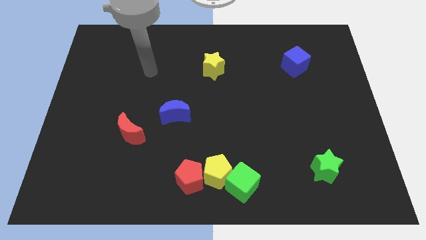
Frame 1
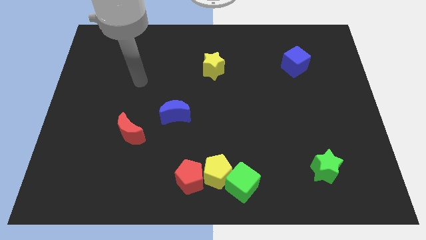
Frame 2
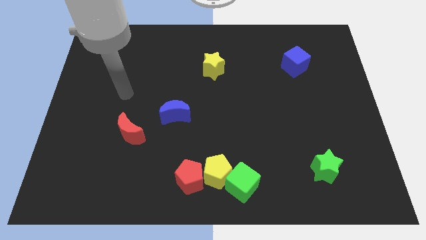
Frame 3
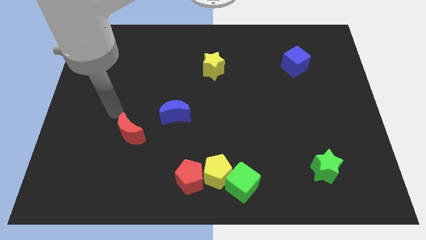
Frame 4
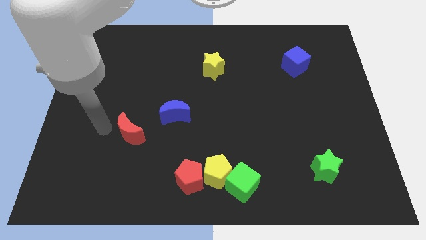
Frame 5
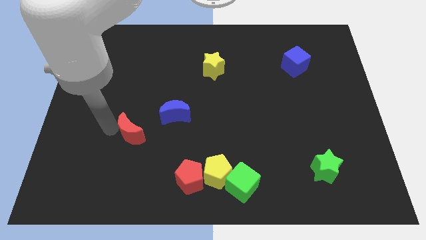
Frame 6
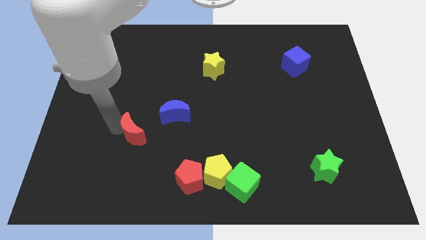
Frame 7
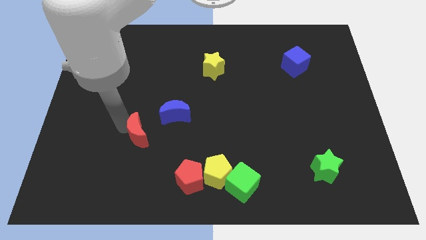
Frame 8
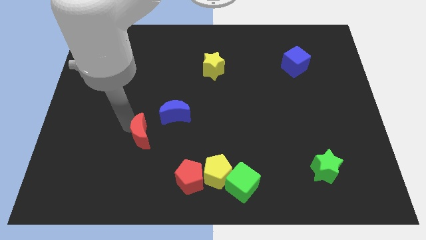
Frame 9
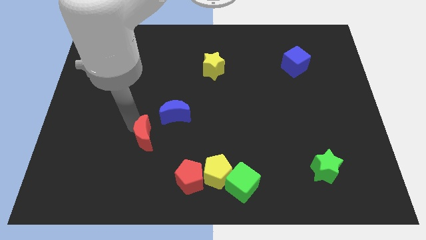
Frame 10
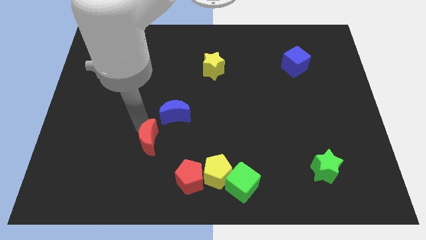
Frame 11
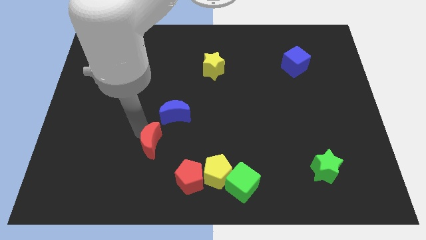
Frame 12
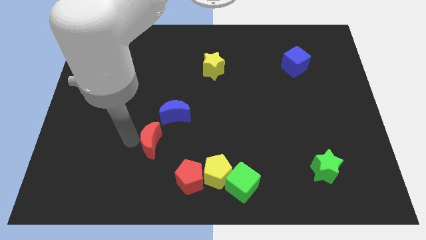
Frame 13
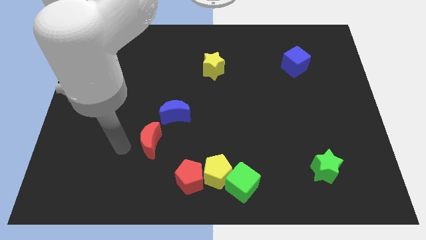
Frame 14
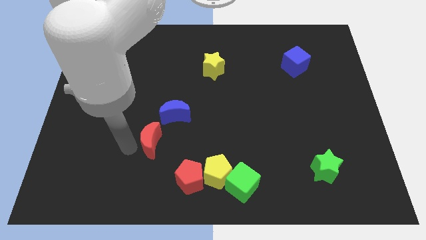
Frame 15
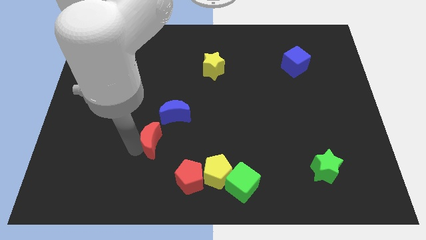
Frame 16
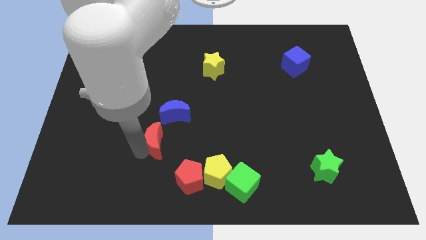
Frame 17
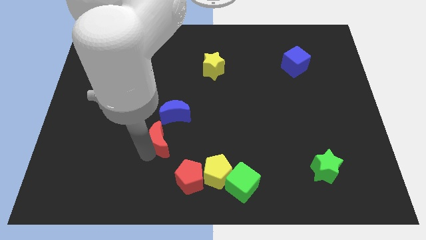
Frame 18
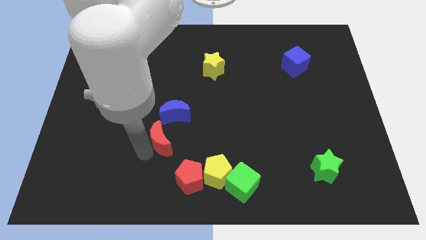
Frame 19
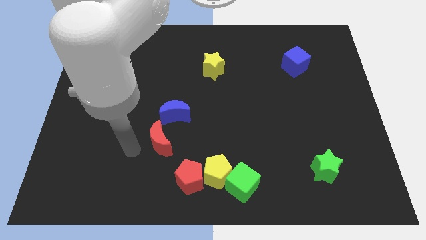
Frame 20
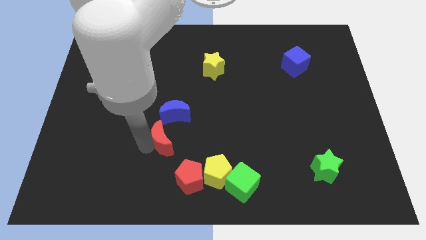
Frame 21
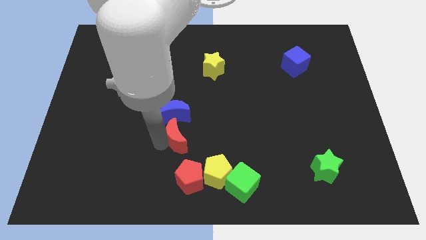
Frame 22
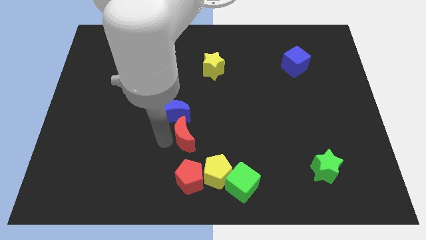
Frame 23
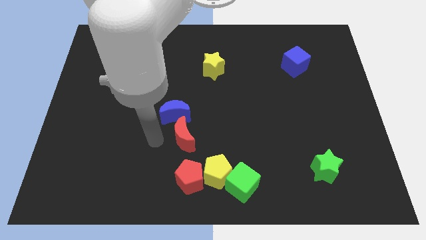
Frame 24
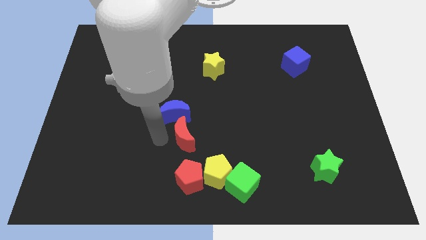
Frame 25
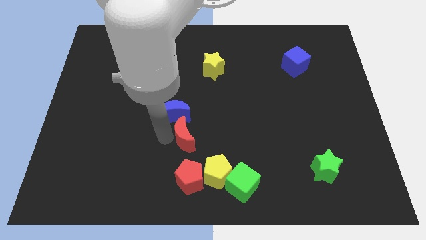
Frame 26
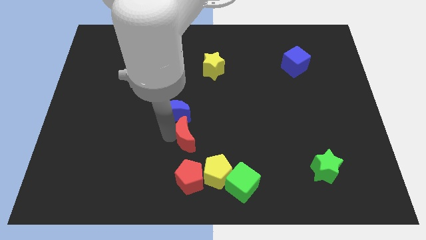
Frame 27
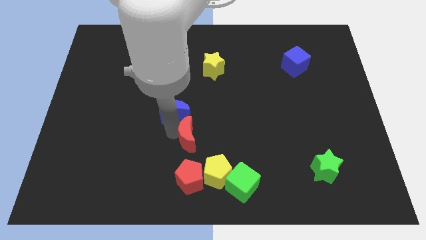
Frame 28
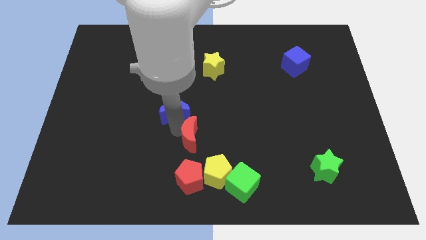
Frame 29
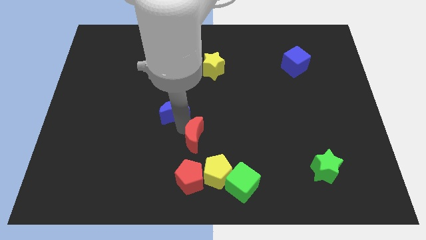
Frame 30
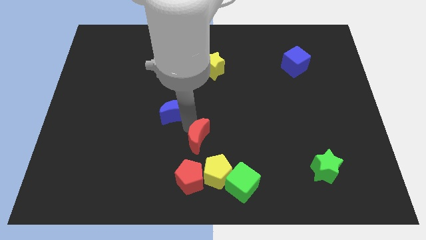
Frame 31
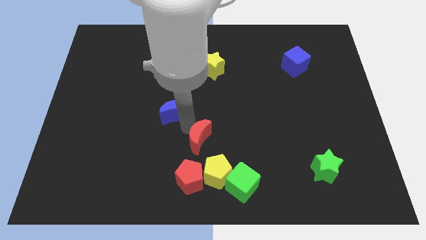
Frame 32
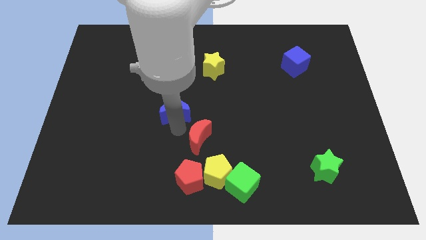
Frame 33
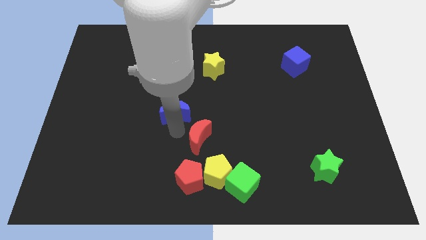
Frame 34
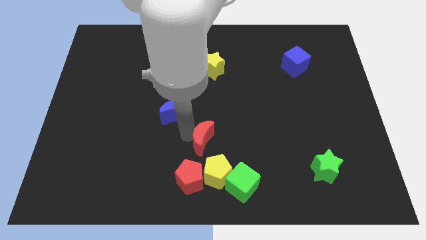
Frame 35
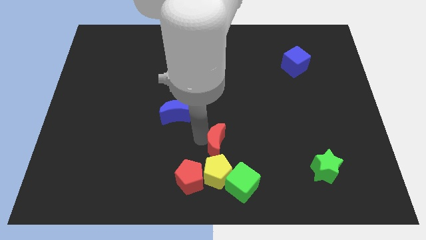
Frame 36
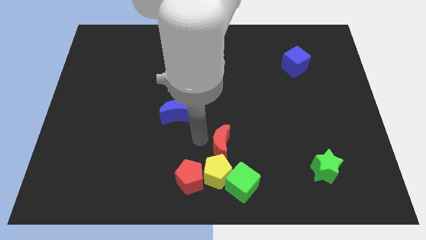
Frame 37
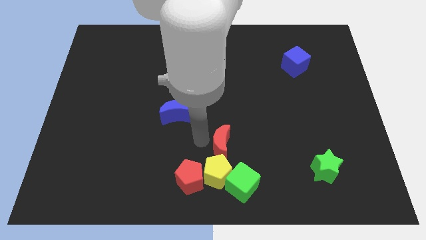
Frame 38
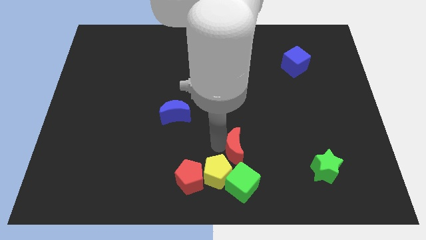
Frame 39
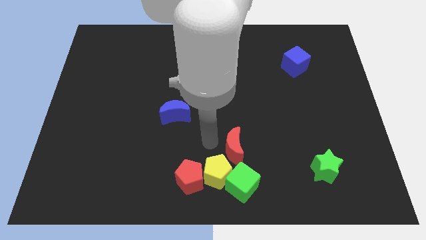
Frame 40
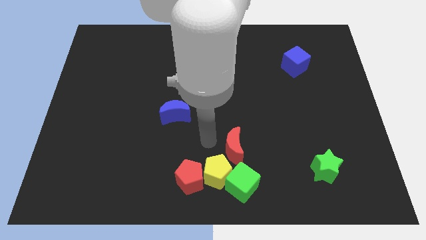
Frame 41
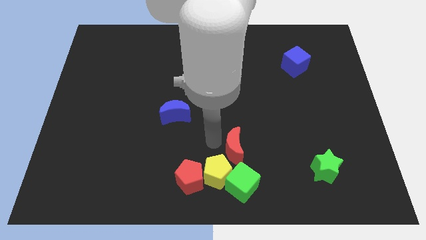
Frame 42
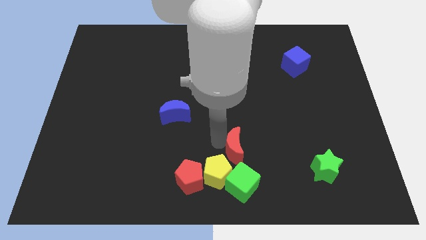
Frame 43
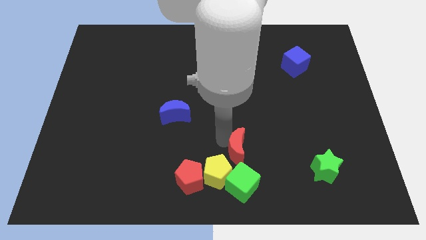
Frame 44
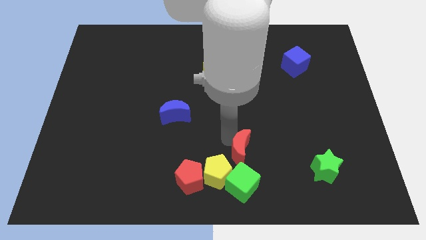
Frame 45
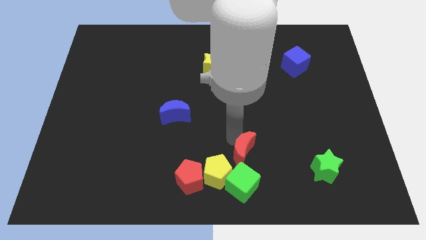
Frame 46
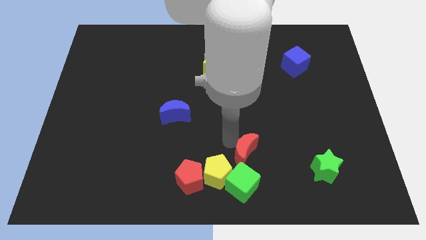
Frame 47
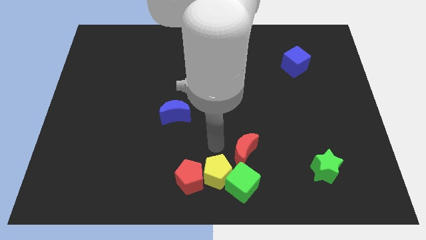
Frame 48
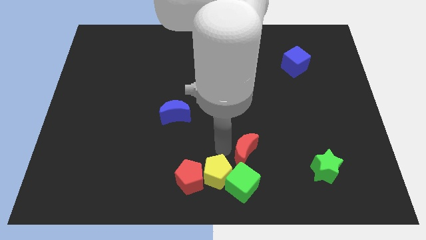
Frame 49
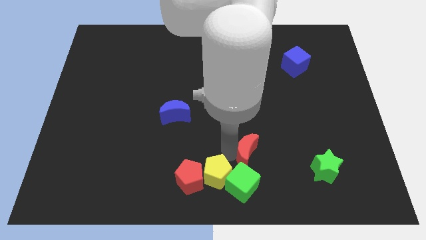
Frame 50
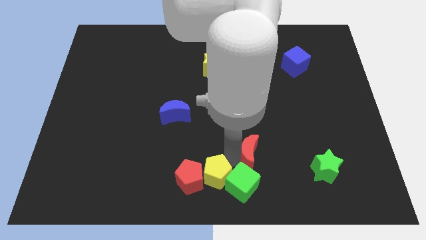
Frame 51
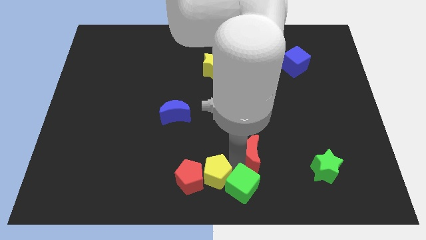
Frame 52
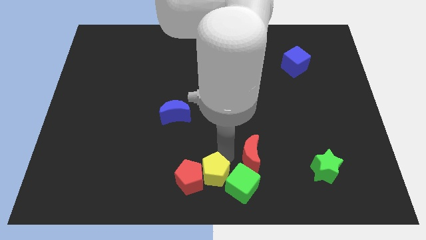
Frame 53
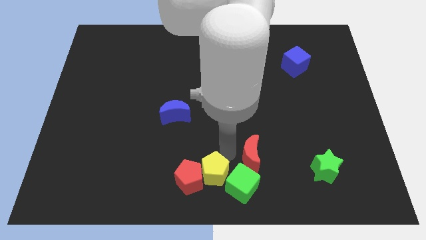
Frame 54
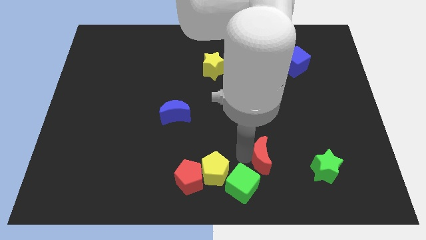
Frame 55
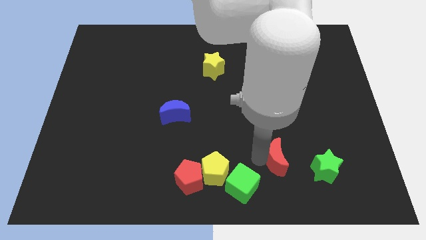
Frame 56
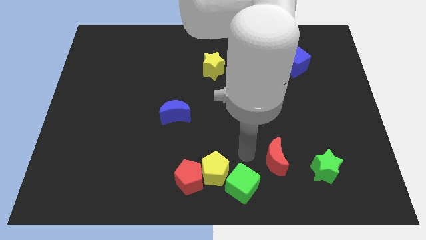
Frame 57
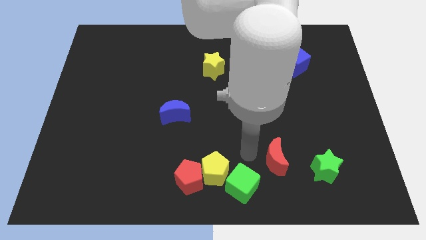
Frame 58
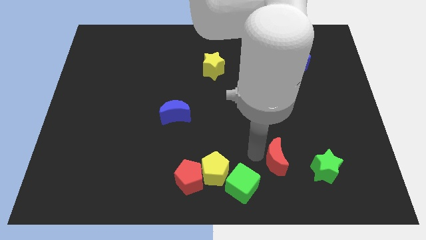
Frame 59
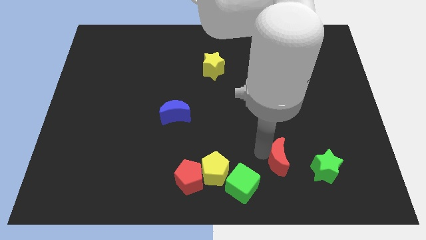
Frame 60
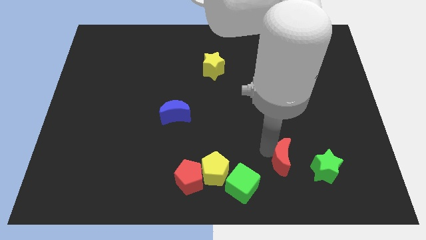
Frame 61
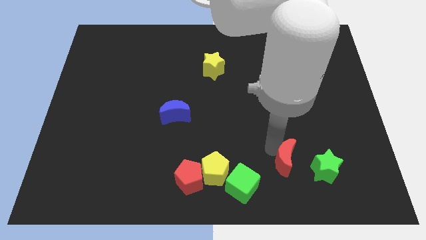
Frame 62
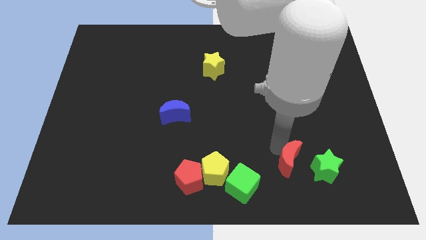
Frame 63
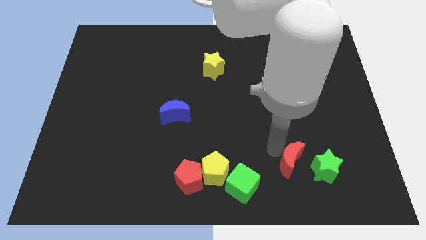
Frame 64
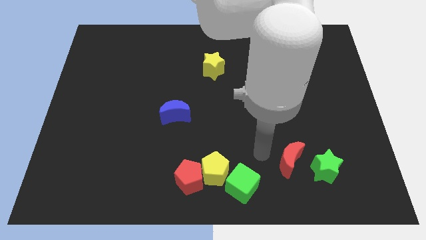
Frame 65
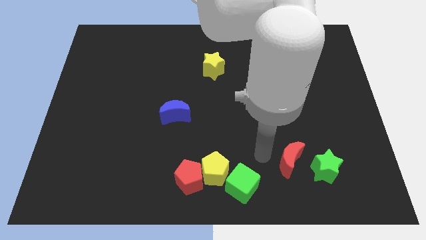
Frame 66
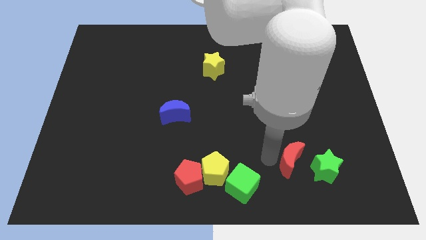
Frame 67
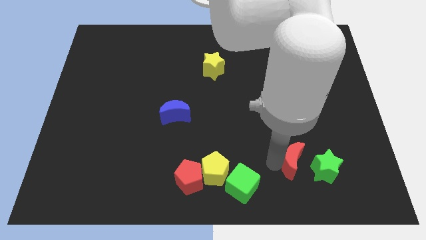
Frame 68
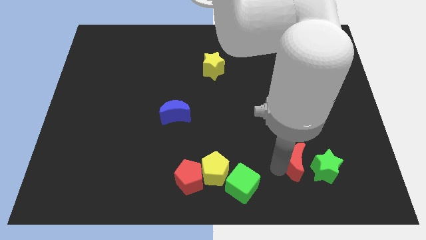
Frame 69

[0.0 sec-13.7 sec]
put the red moon close to the green star

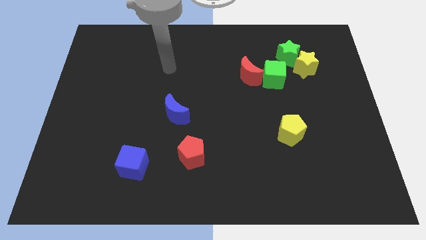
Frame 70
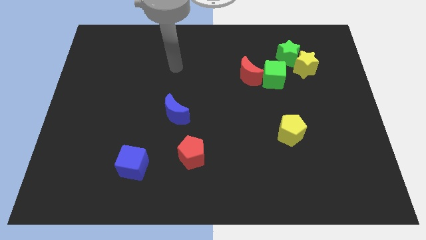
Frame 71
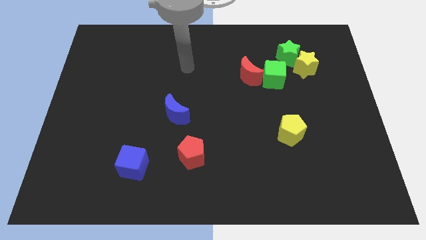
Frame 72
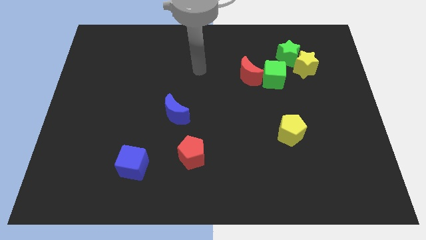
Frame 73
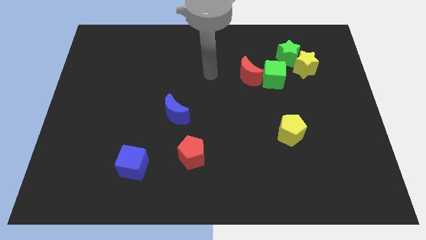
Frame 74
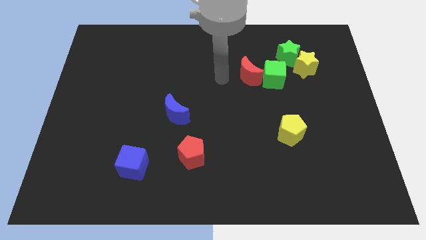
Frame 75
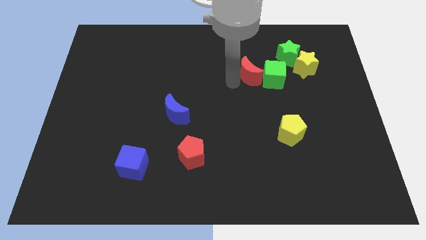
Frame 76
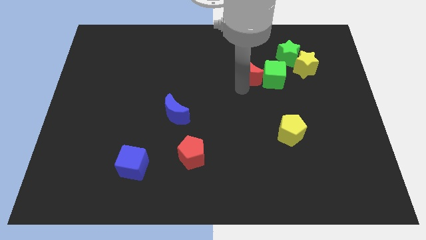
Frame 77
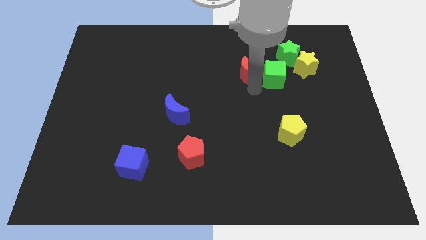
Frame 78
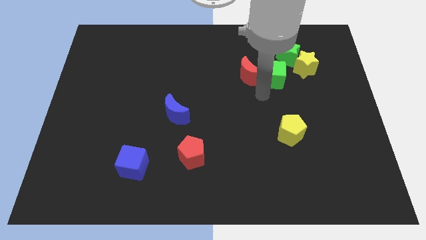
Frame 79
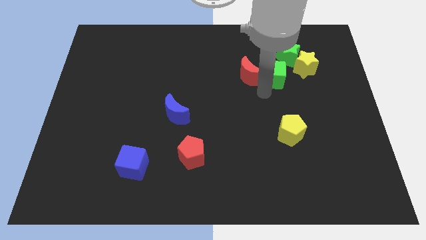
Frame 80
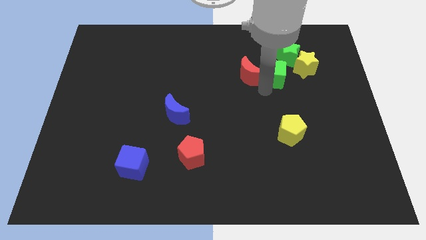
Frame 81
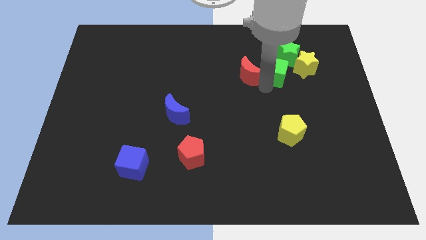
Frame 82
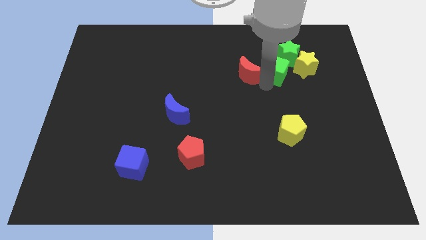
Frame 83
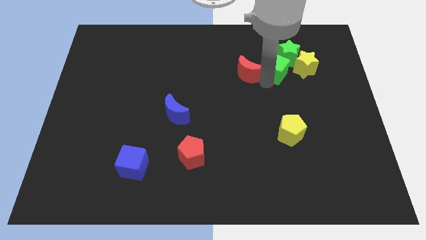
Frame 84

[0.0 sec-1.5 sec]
push the green cube towards the green star
